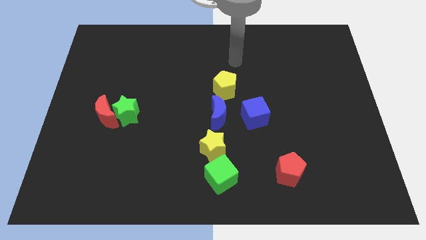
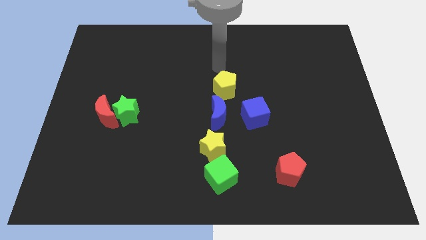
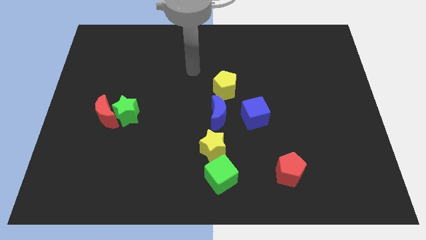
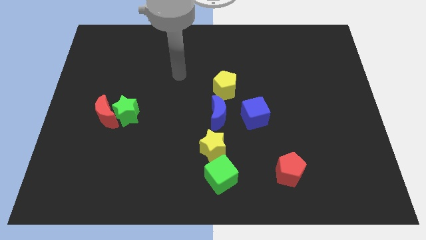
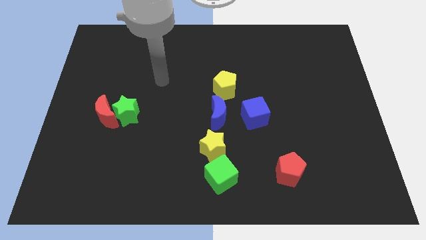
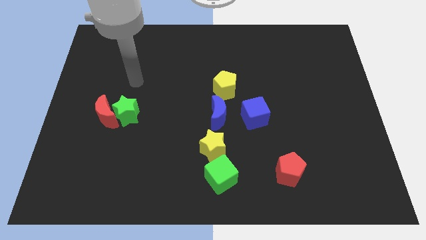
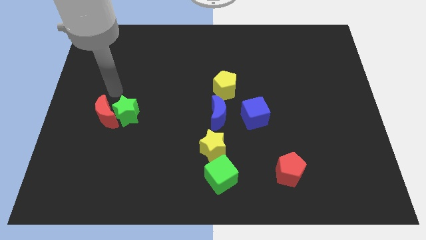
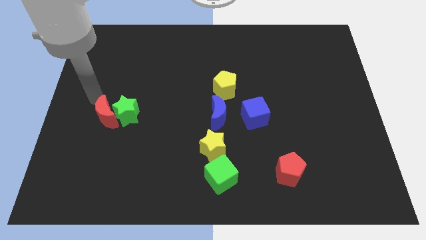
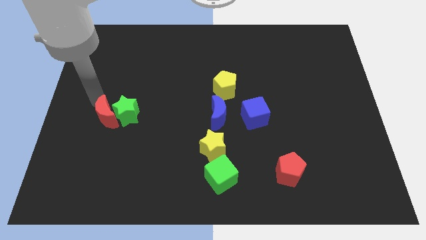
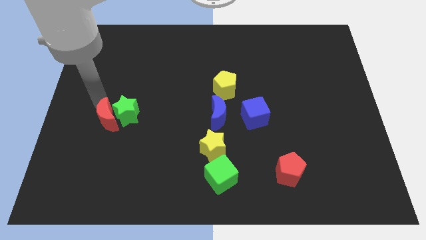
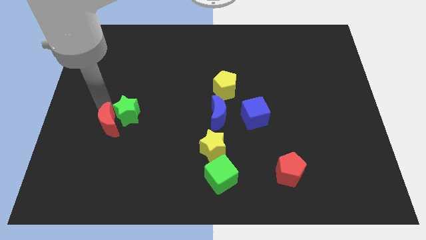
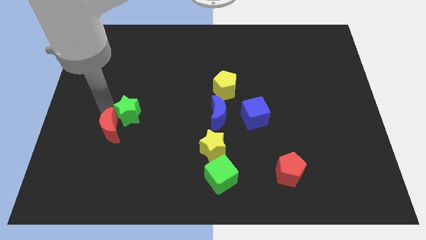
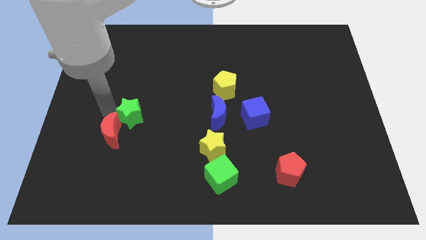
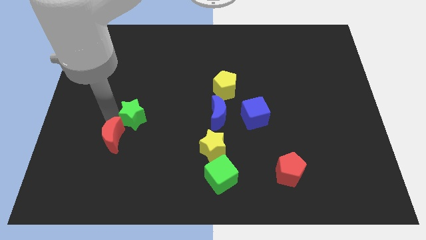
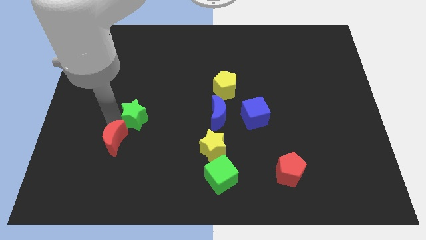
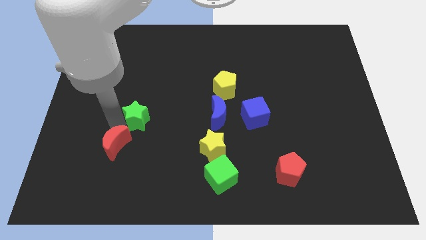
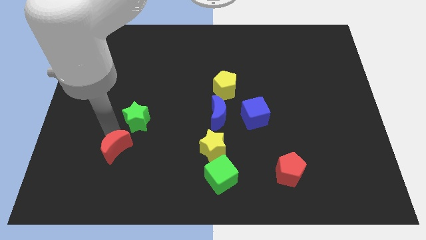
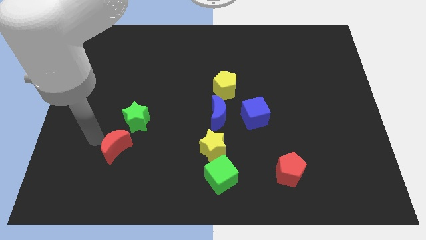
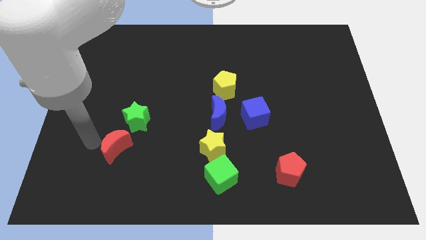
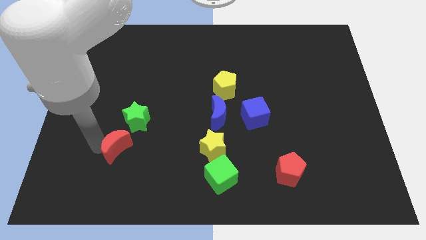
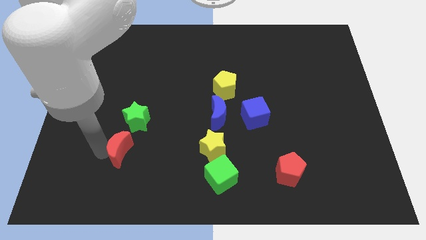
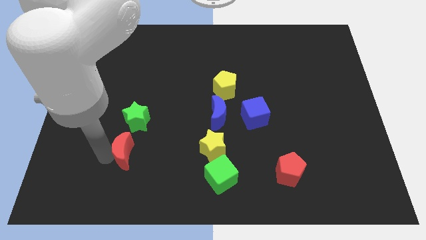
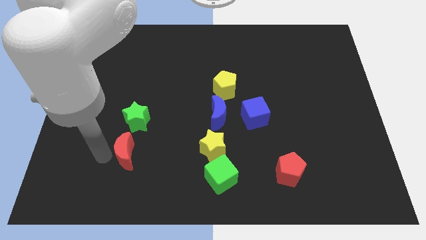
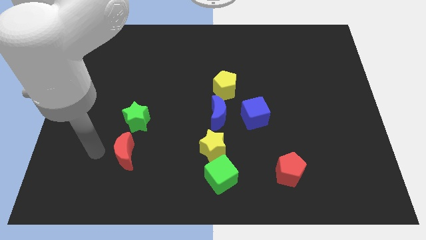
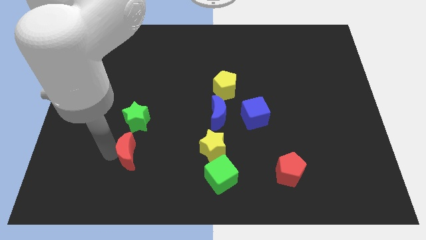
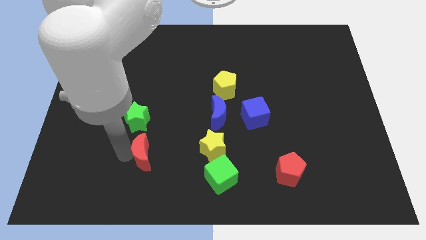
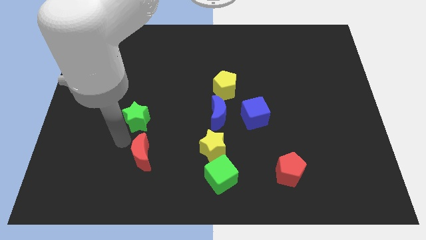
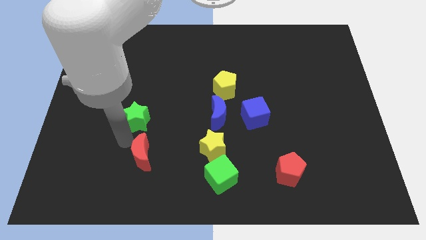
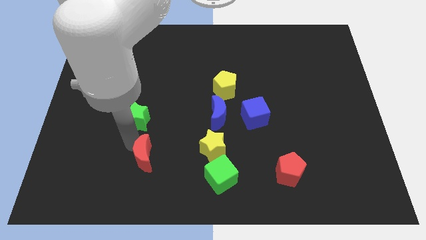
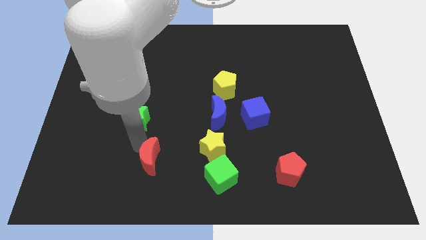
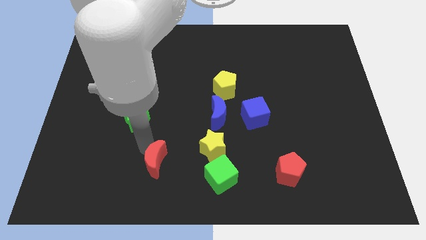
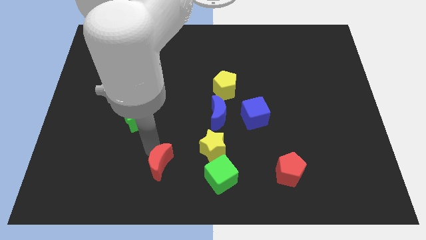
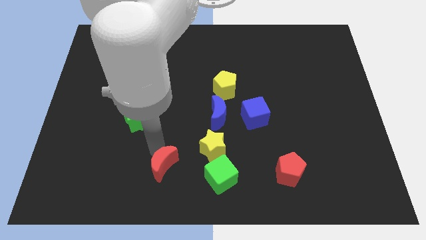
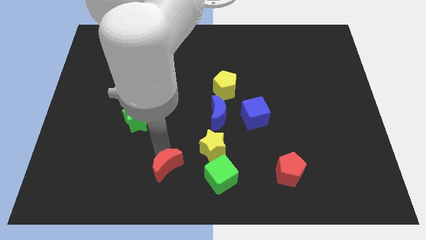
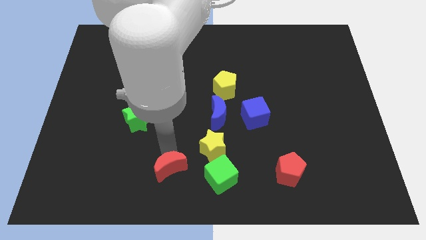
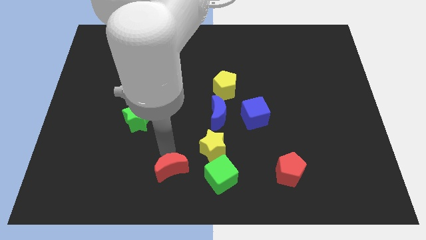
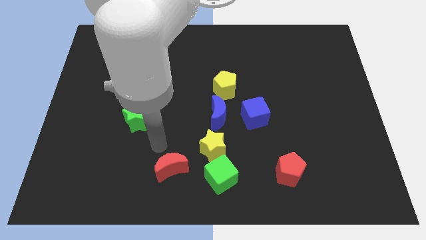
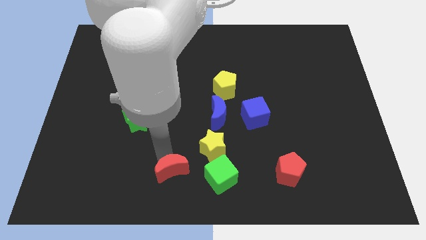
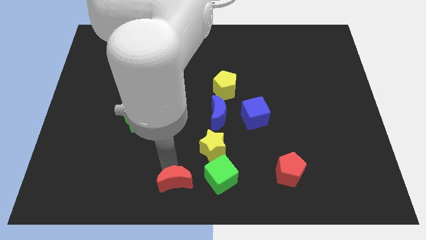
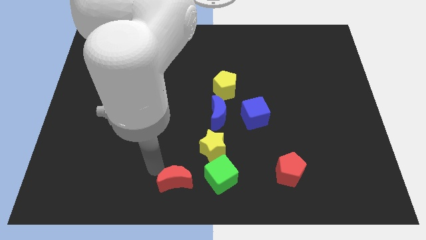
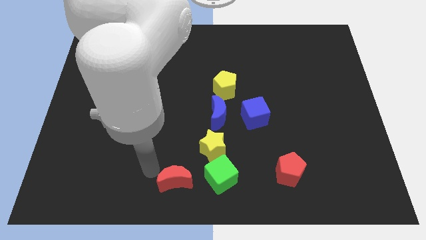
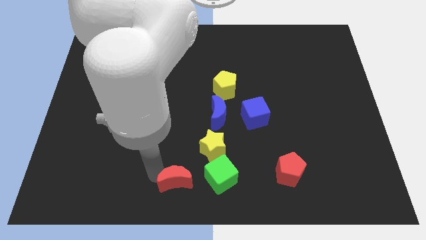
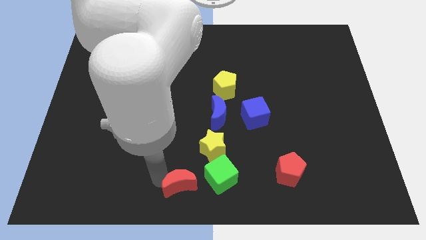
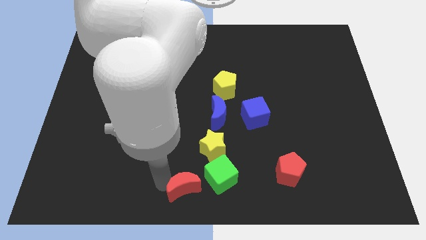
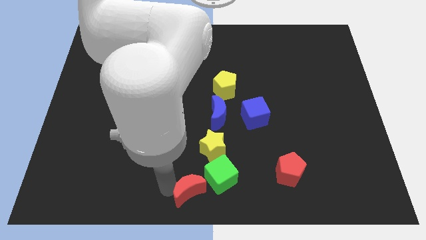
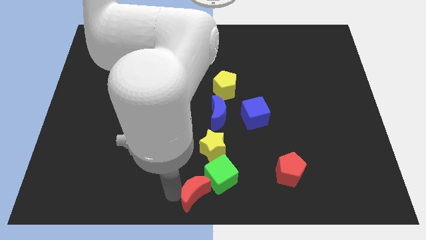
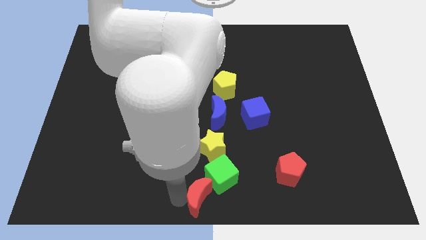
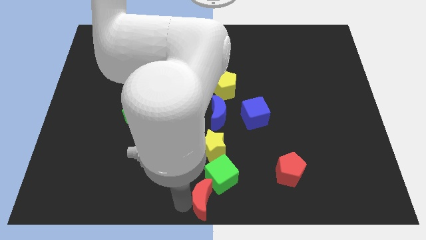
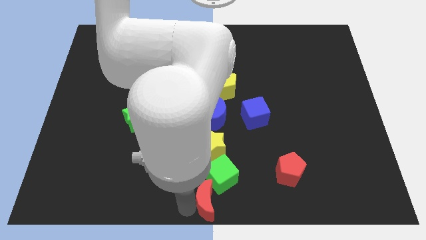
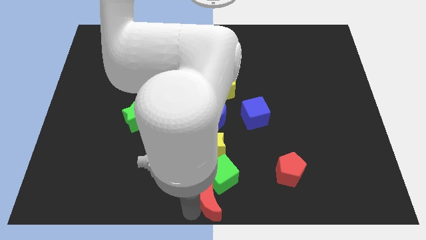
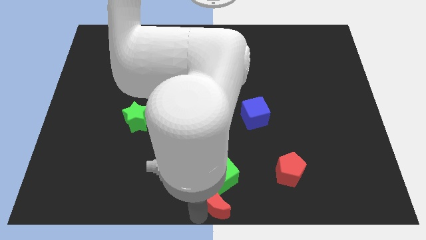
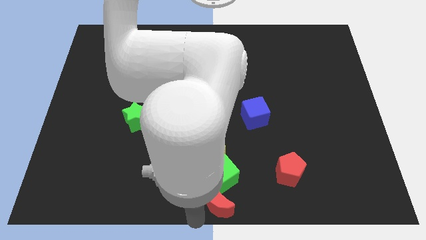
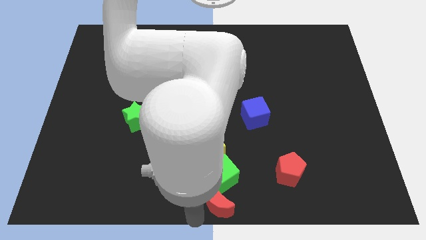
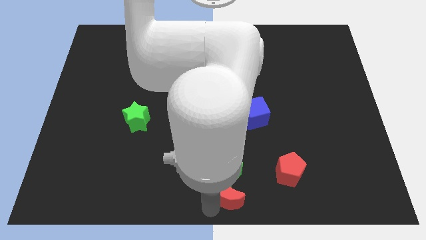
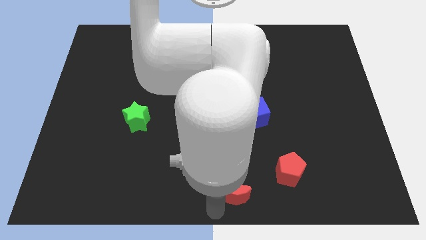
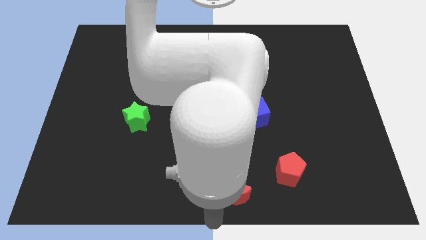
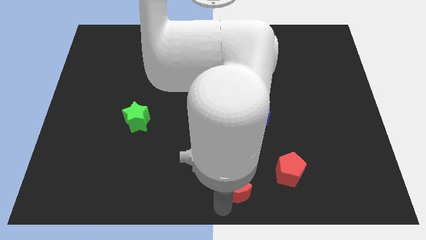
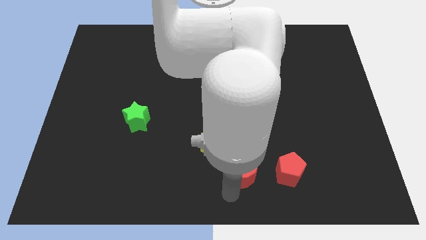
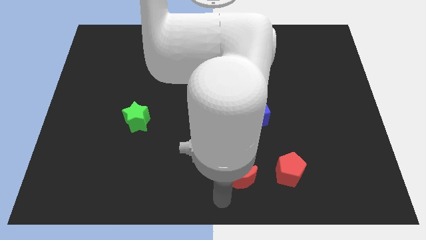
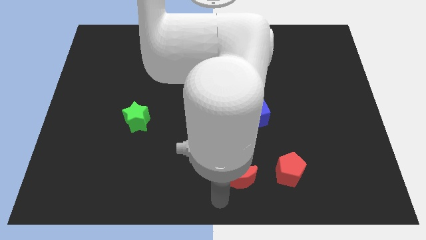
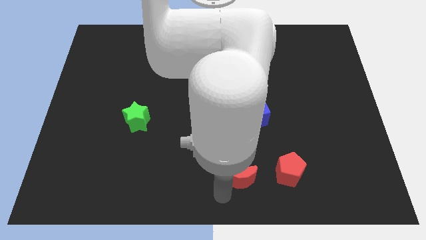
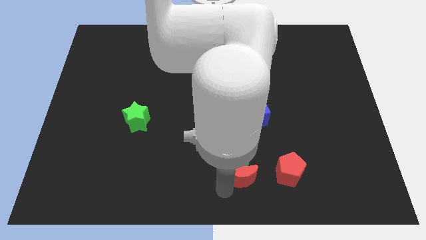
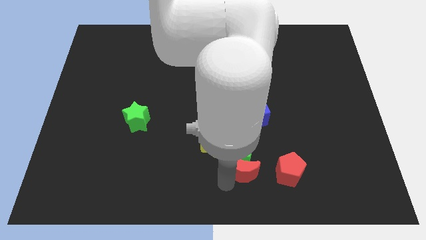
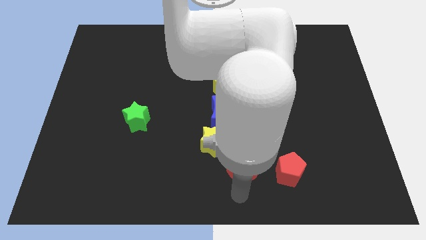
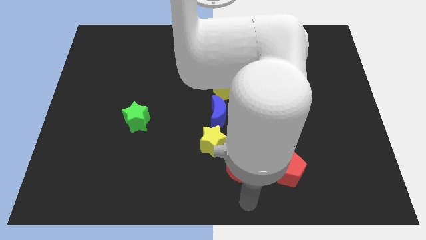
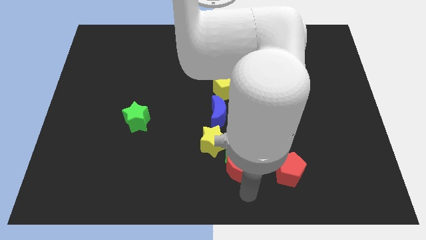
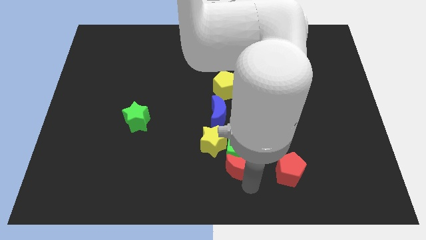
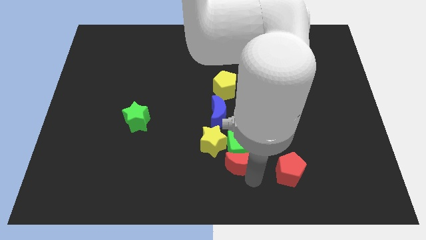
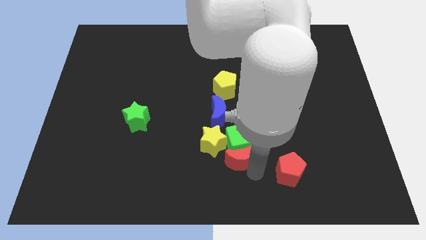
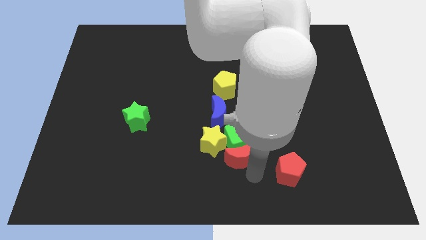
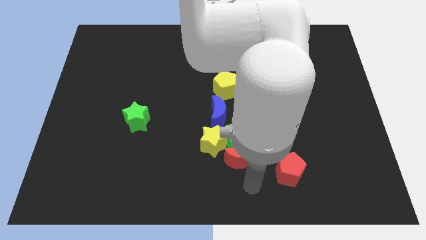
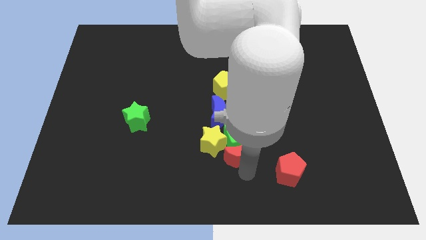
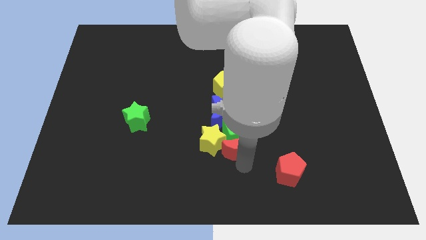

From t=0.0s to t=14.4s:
push the red moon diagonally down and to the left of the blue cube
